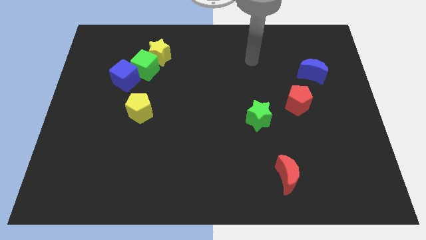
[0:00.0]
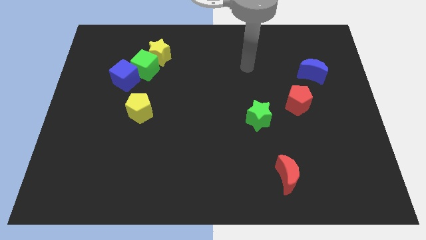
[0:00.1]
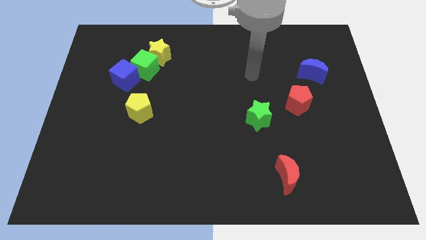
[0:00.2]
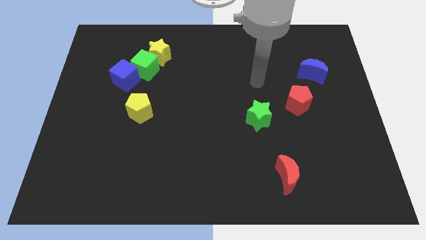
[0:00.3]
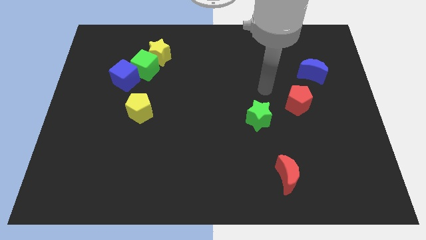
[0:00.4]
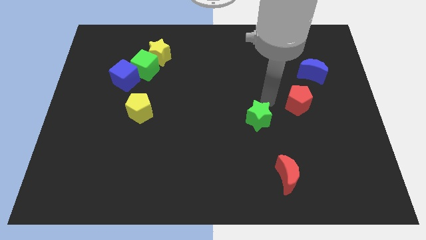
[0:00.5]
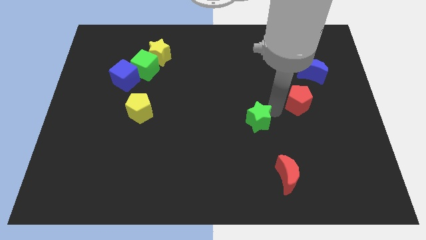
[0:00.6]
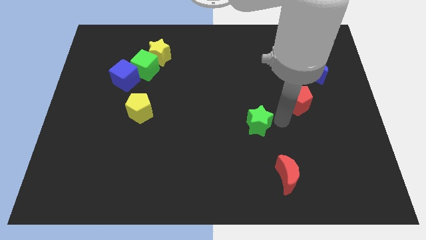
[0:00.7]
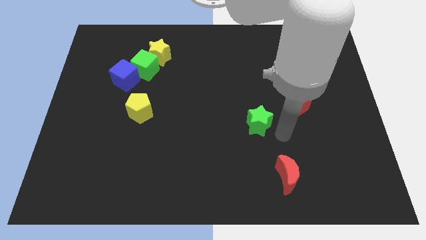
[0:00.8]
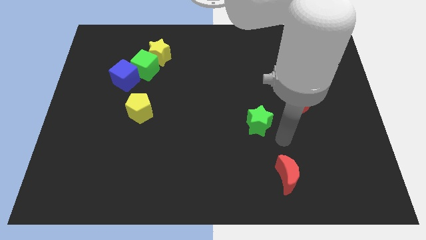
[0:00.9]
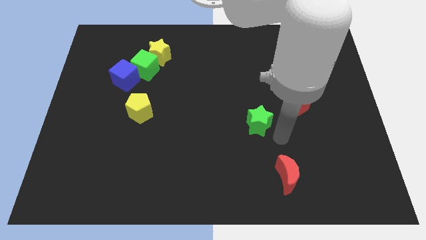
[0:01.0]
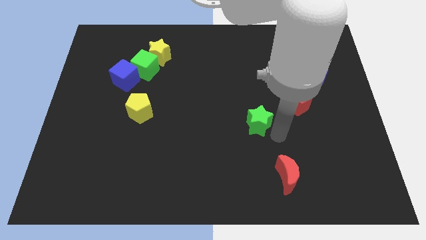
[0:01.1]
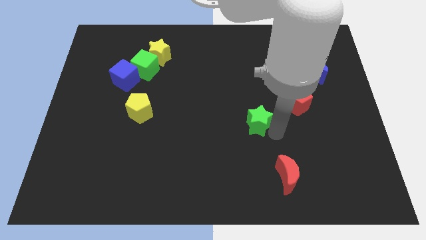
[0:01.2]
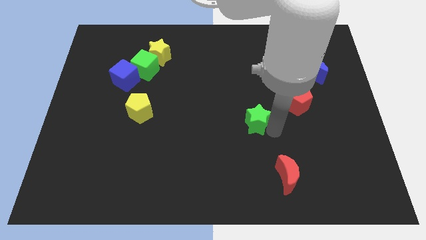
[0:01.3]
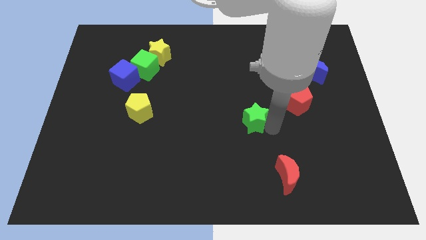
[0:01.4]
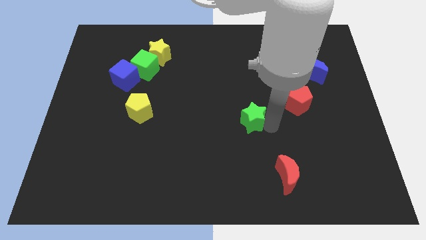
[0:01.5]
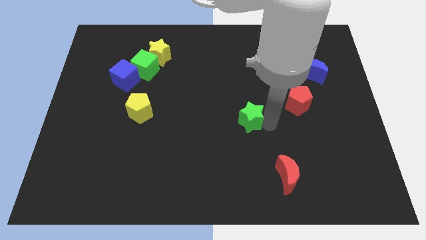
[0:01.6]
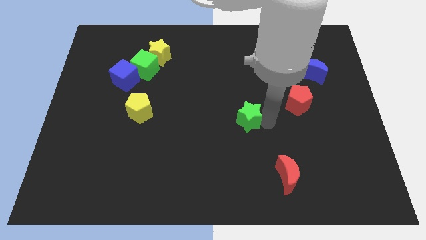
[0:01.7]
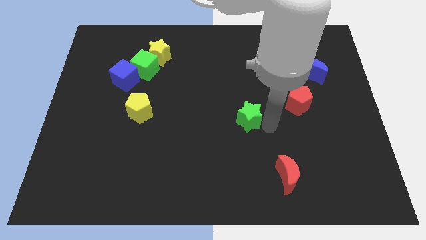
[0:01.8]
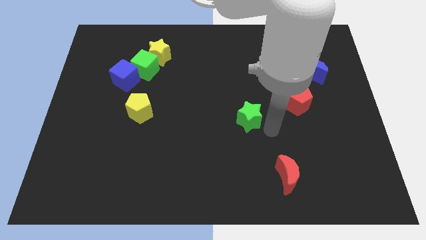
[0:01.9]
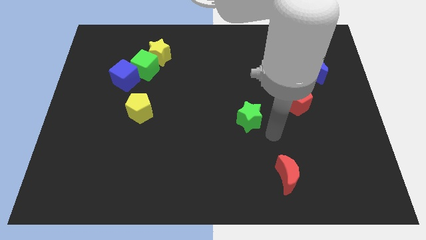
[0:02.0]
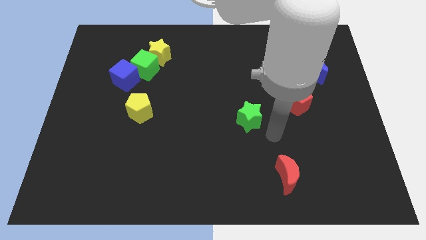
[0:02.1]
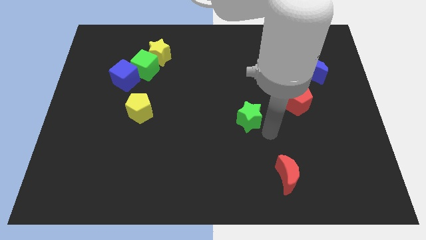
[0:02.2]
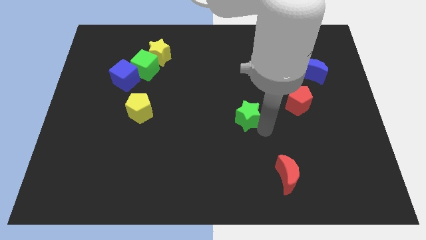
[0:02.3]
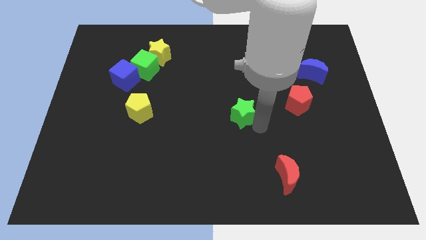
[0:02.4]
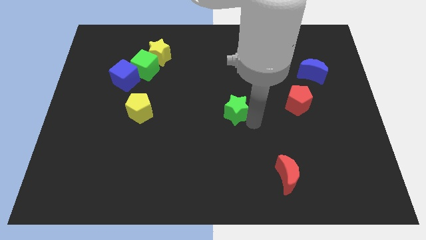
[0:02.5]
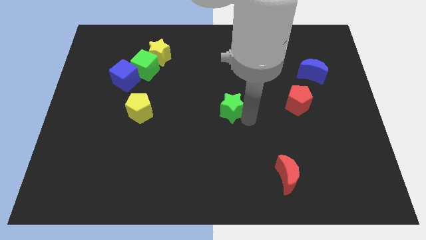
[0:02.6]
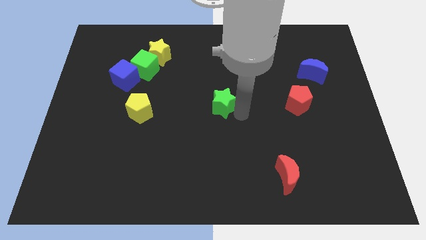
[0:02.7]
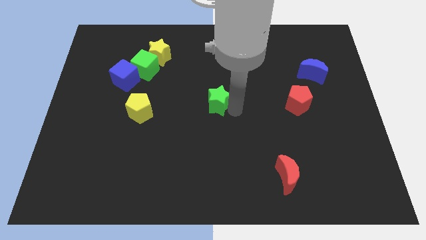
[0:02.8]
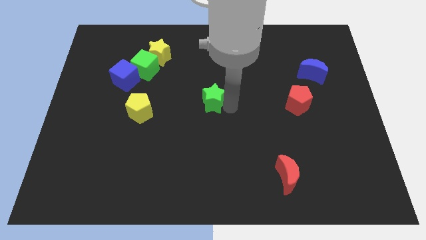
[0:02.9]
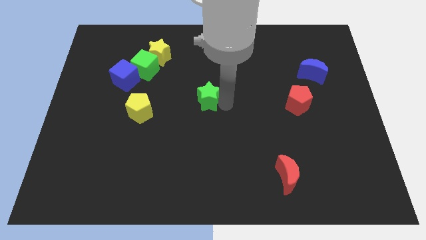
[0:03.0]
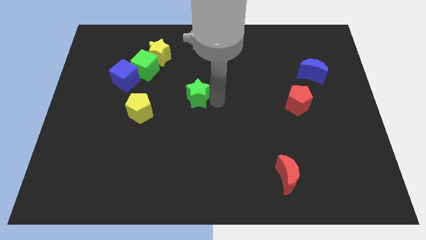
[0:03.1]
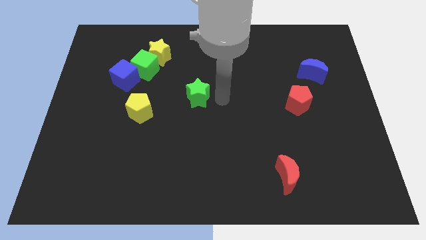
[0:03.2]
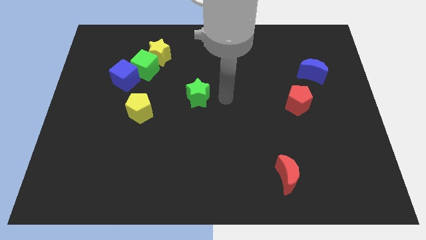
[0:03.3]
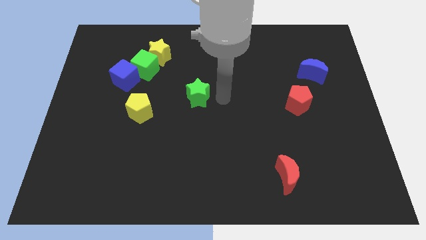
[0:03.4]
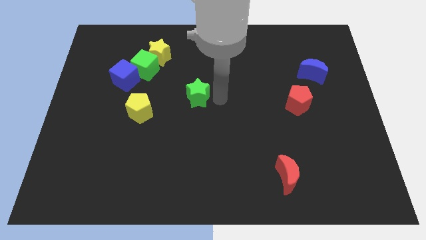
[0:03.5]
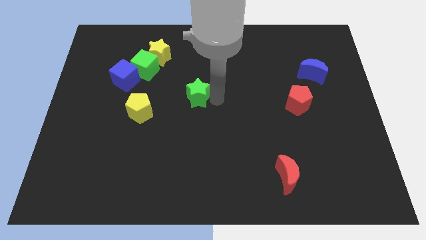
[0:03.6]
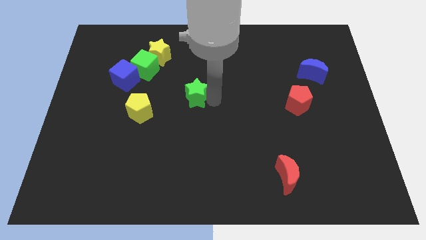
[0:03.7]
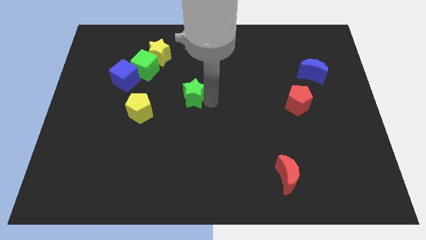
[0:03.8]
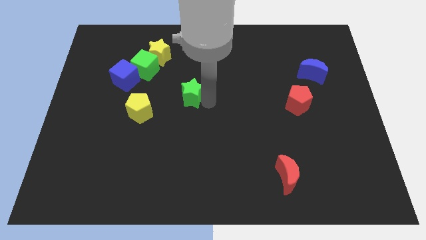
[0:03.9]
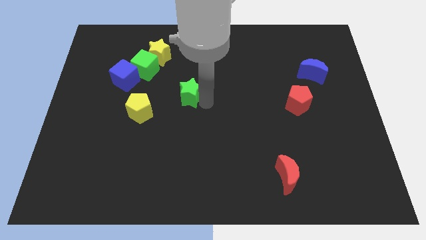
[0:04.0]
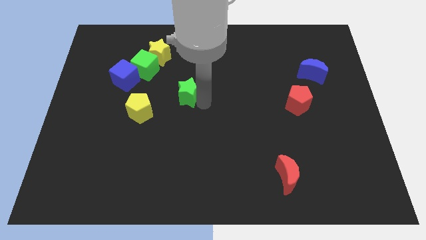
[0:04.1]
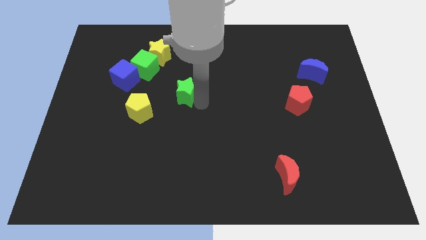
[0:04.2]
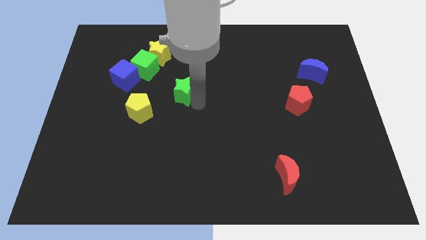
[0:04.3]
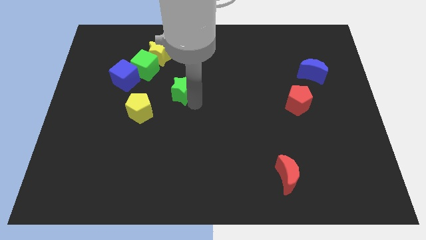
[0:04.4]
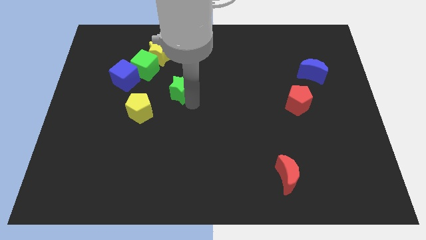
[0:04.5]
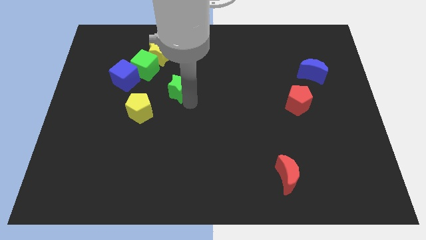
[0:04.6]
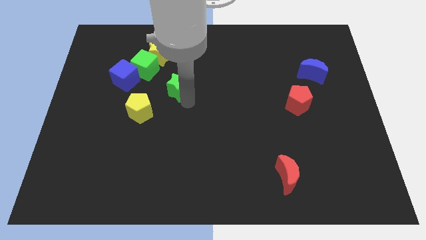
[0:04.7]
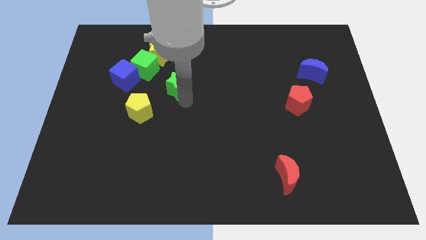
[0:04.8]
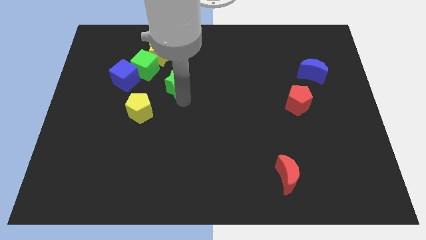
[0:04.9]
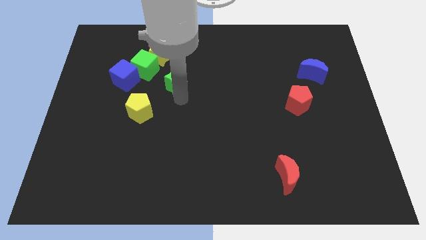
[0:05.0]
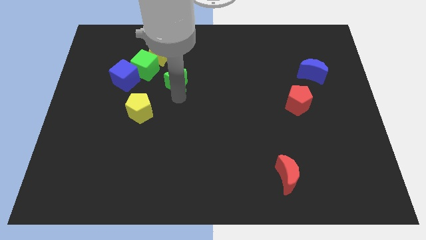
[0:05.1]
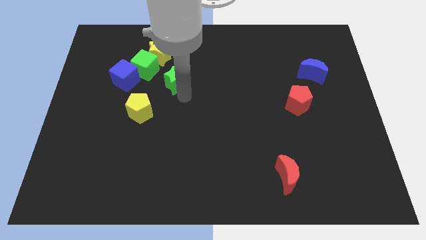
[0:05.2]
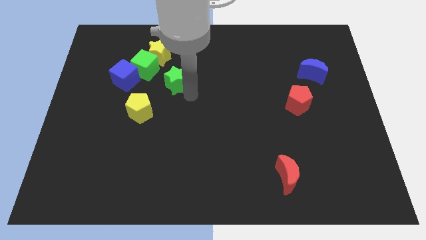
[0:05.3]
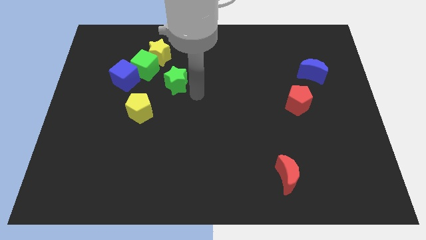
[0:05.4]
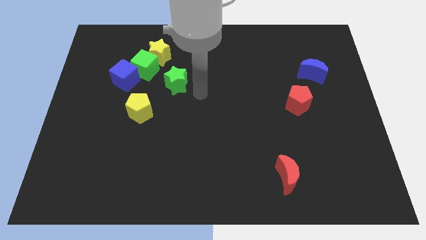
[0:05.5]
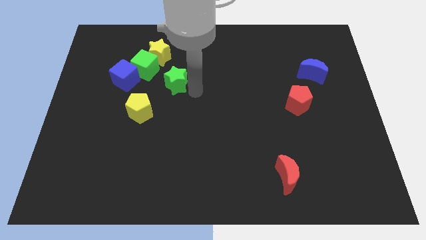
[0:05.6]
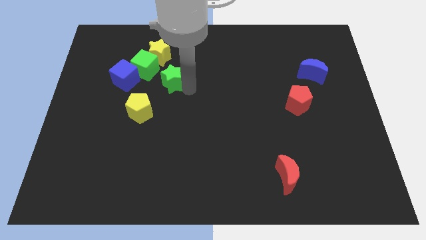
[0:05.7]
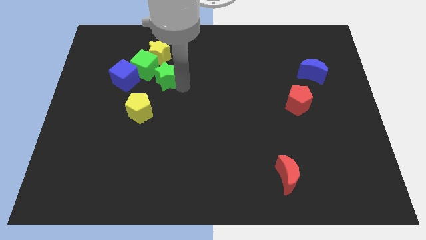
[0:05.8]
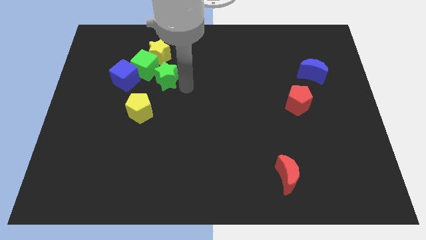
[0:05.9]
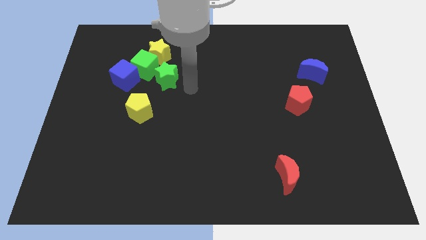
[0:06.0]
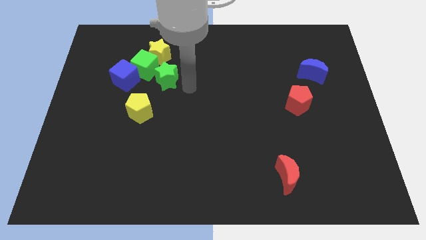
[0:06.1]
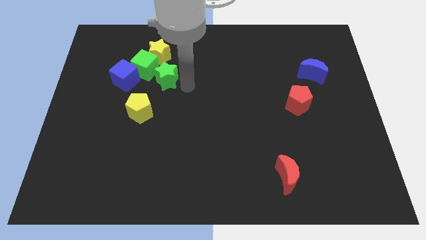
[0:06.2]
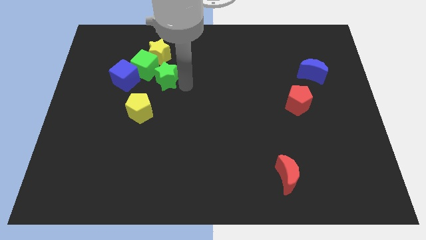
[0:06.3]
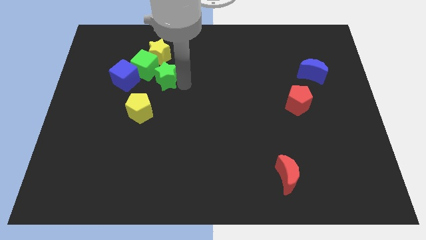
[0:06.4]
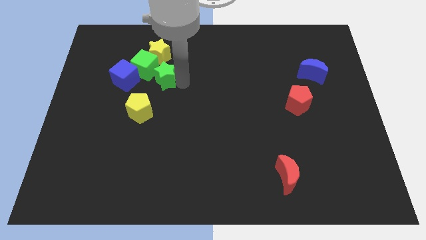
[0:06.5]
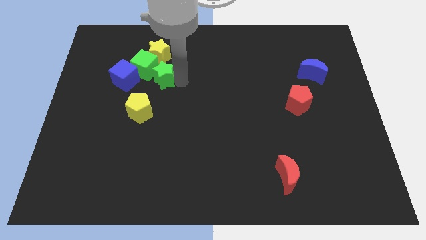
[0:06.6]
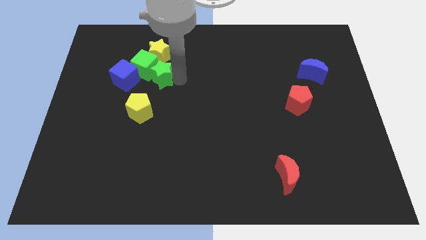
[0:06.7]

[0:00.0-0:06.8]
put the green star towards the green cube
